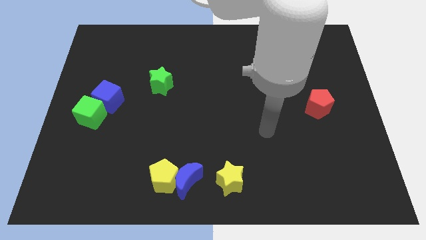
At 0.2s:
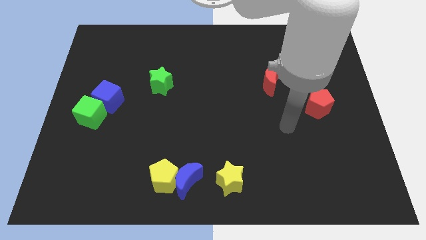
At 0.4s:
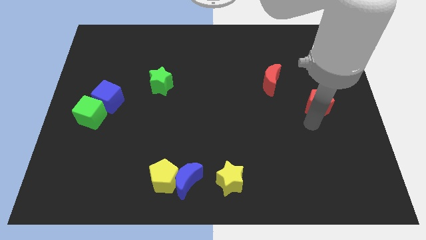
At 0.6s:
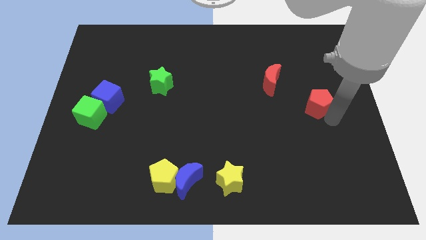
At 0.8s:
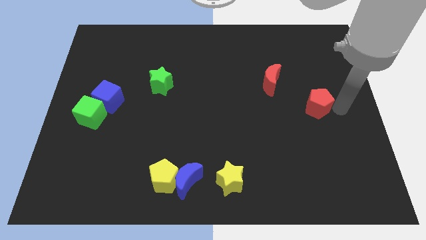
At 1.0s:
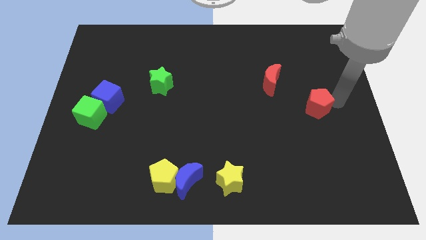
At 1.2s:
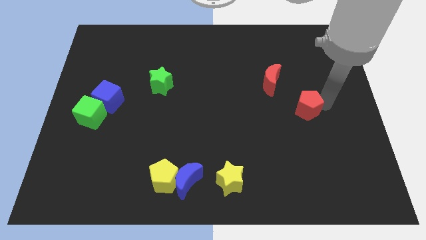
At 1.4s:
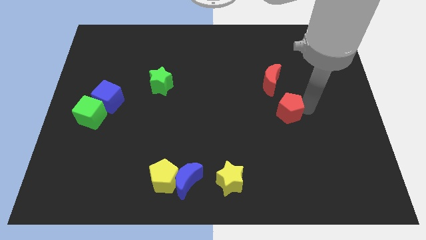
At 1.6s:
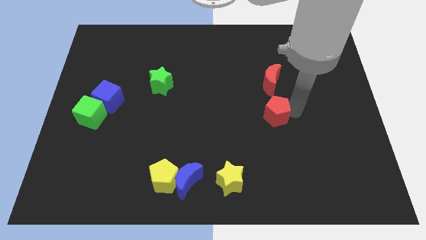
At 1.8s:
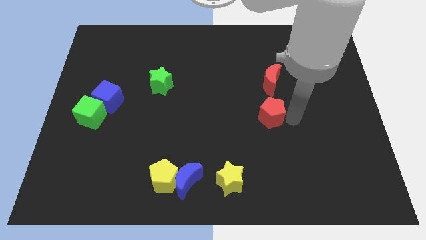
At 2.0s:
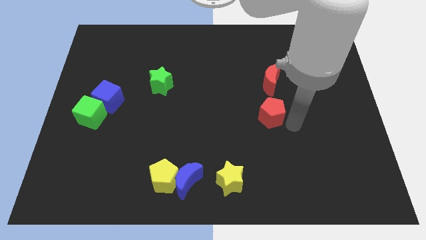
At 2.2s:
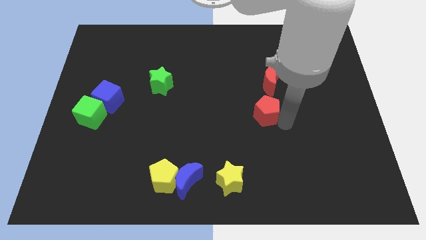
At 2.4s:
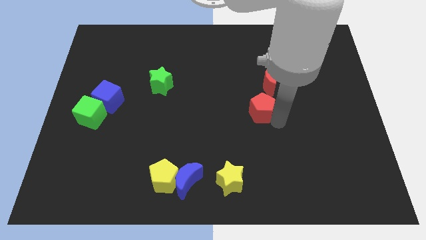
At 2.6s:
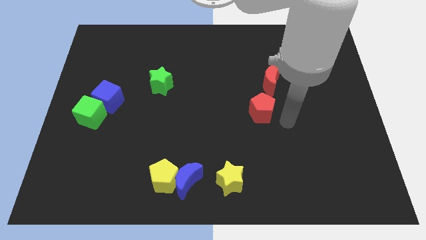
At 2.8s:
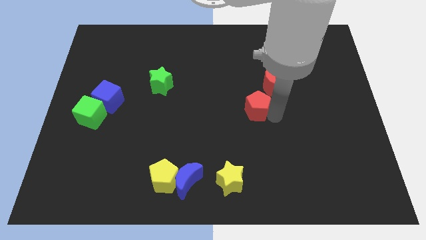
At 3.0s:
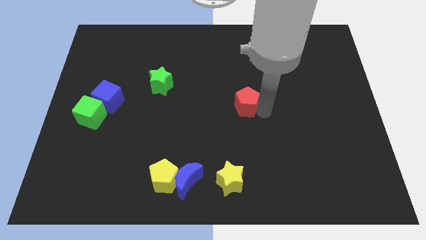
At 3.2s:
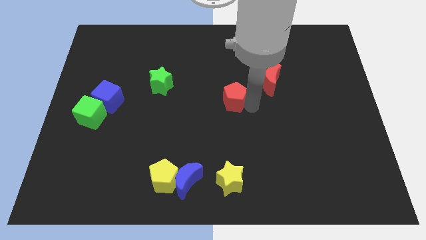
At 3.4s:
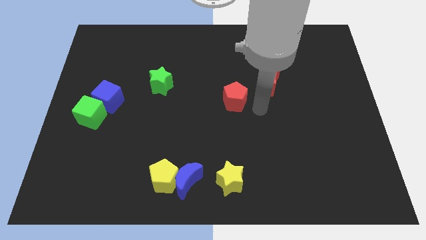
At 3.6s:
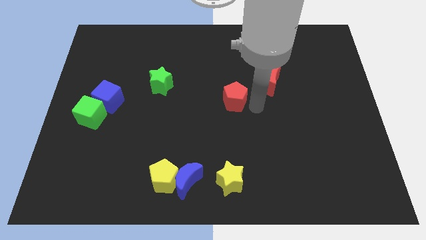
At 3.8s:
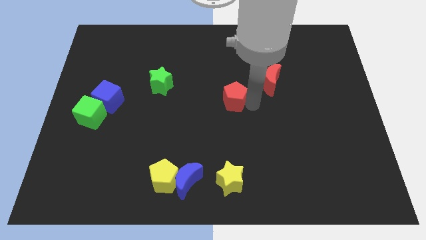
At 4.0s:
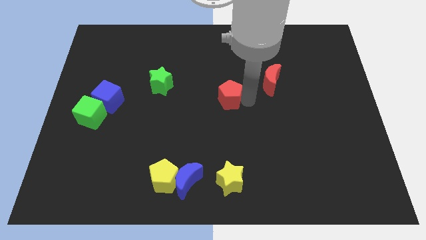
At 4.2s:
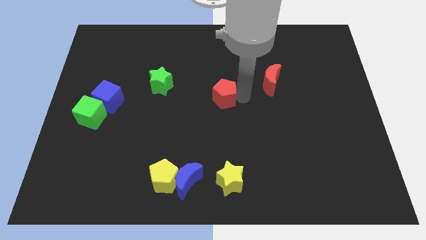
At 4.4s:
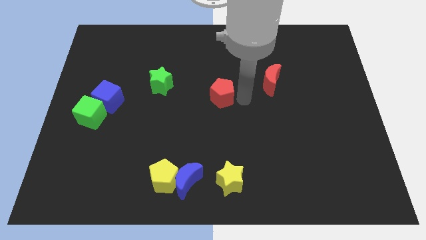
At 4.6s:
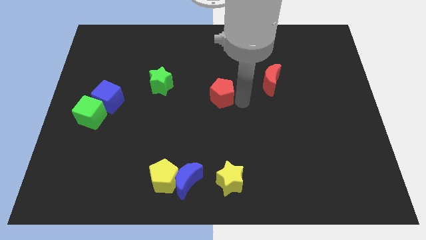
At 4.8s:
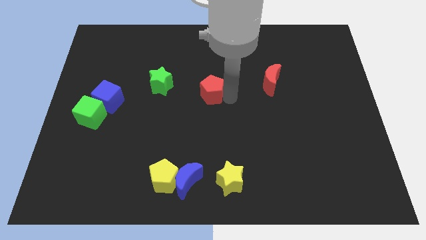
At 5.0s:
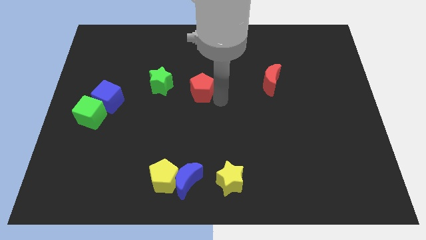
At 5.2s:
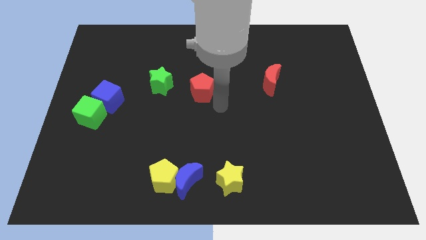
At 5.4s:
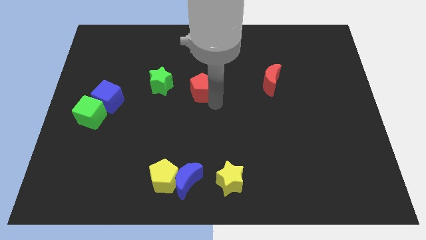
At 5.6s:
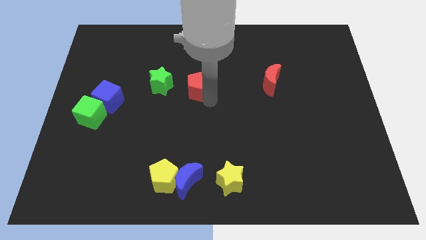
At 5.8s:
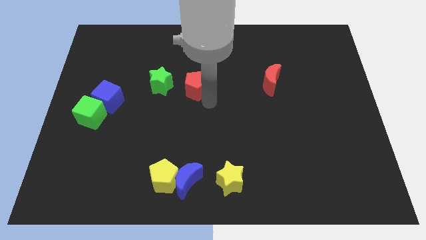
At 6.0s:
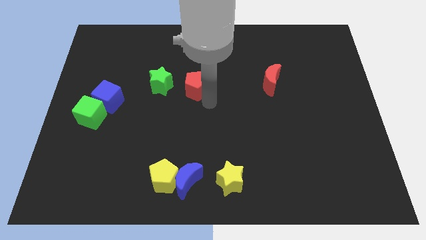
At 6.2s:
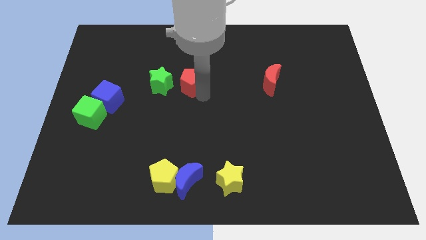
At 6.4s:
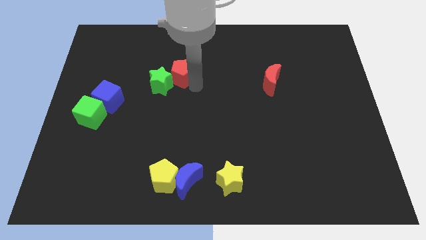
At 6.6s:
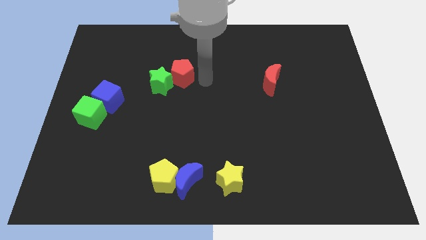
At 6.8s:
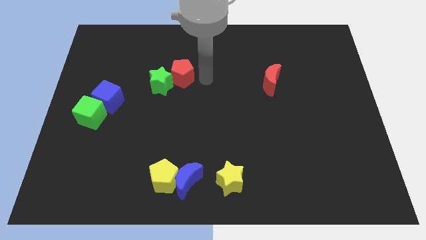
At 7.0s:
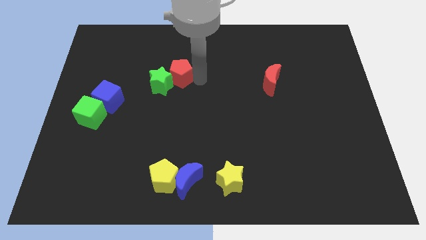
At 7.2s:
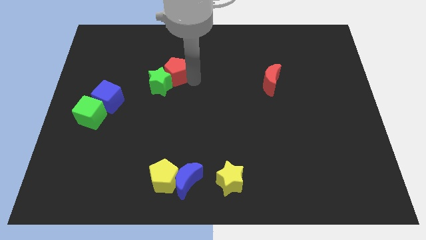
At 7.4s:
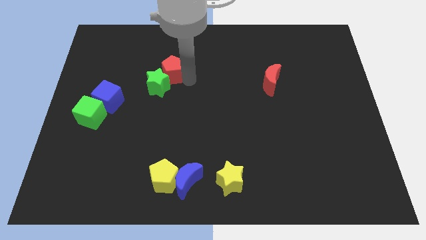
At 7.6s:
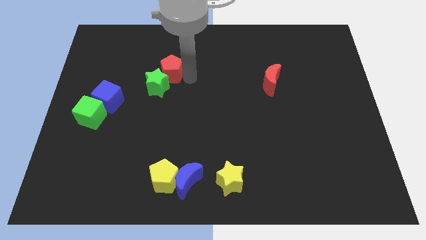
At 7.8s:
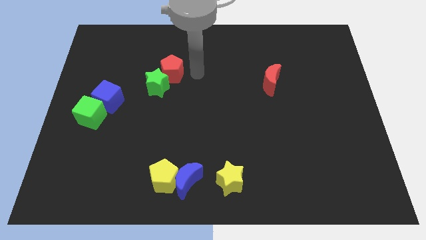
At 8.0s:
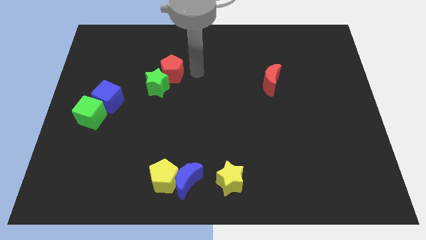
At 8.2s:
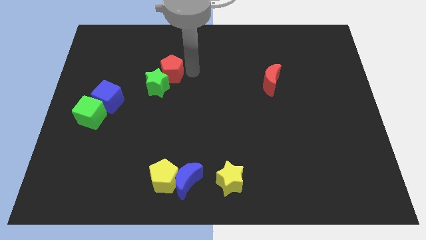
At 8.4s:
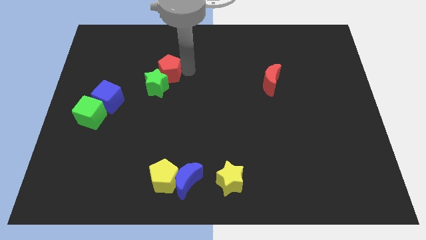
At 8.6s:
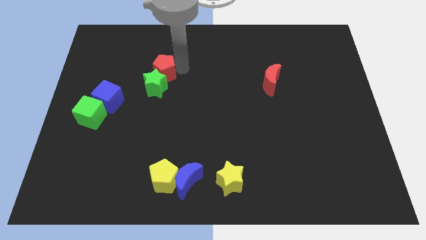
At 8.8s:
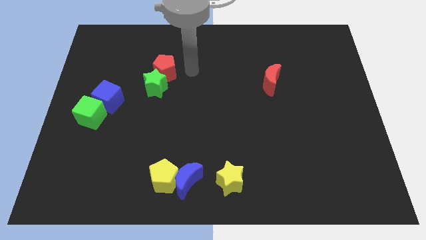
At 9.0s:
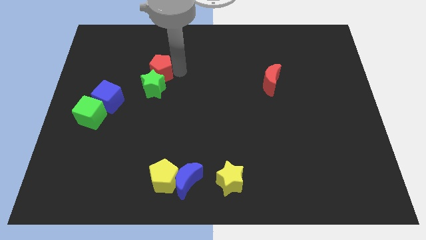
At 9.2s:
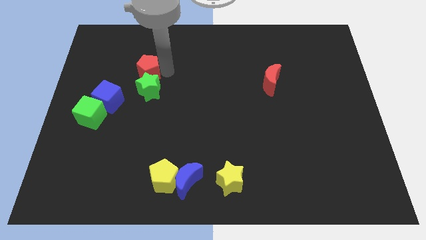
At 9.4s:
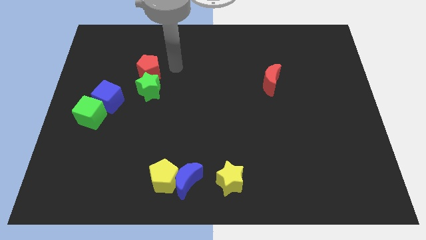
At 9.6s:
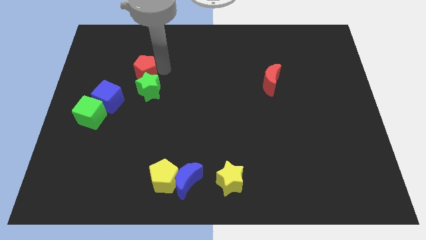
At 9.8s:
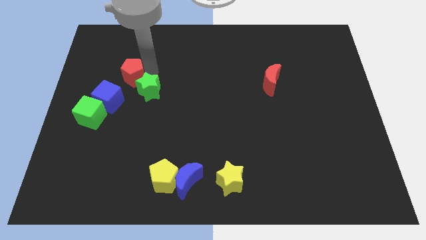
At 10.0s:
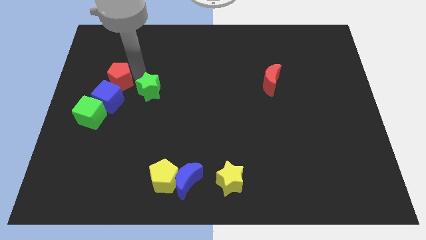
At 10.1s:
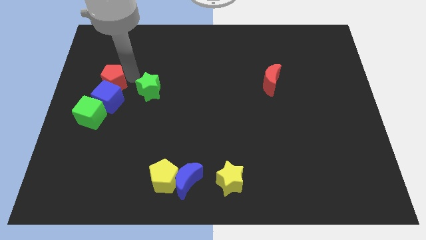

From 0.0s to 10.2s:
slide the red pentagon to the top side of the green cube

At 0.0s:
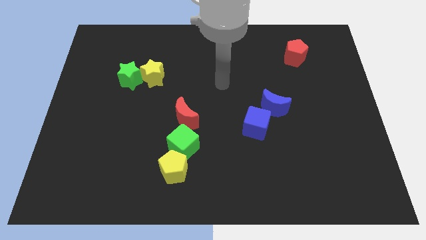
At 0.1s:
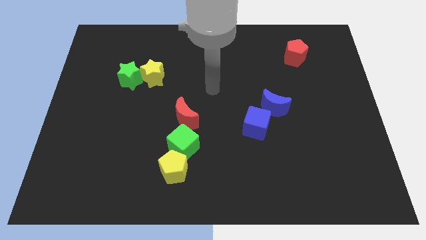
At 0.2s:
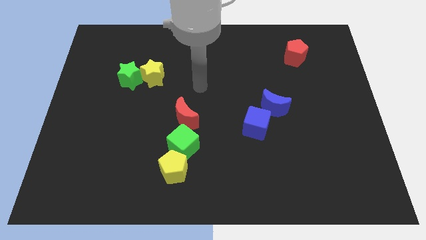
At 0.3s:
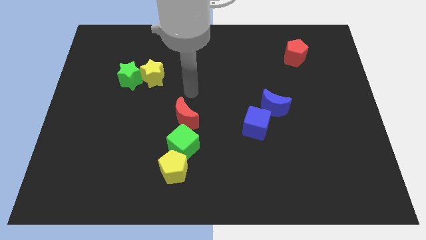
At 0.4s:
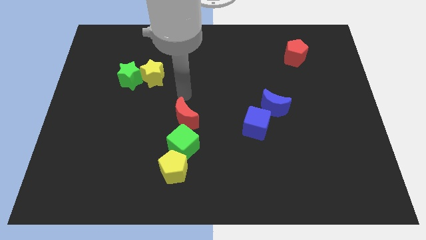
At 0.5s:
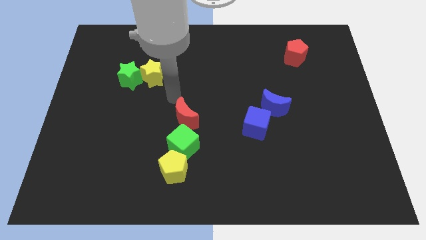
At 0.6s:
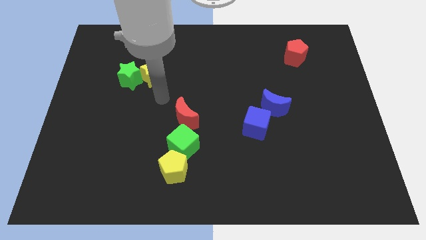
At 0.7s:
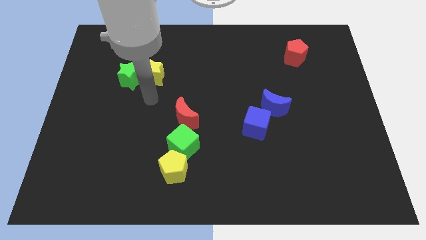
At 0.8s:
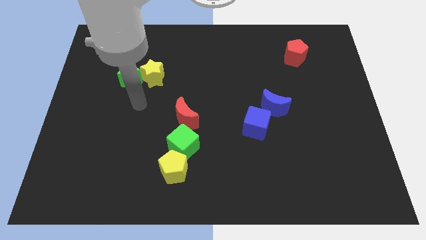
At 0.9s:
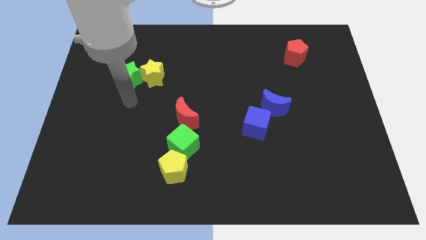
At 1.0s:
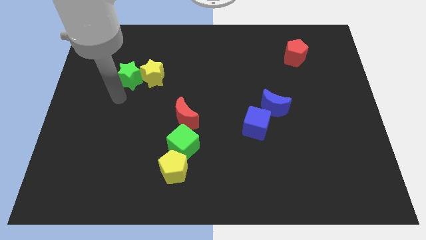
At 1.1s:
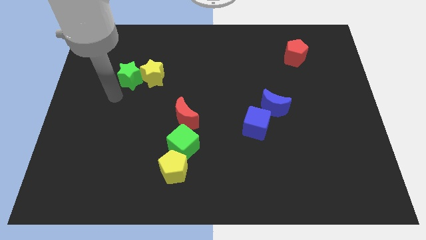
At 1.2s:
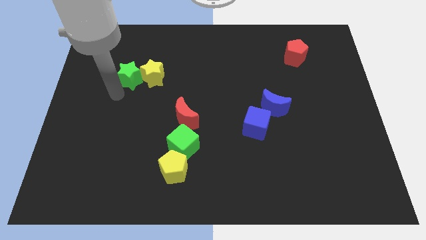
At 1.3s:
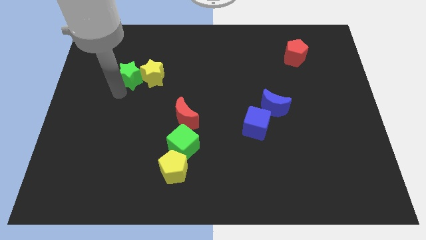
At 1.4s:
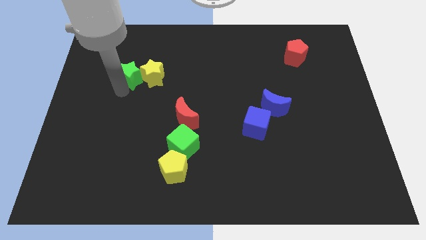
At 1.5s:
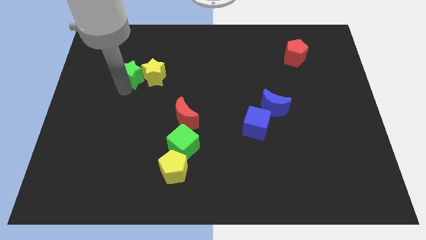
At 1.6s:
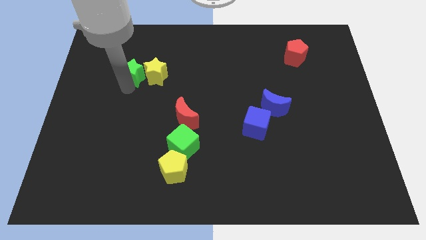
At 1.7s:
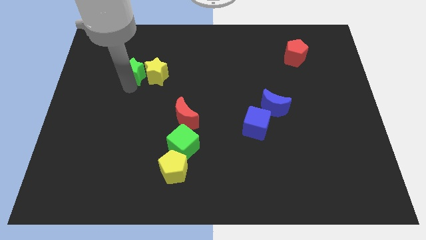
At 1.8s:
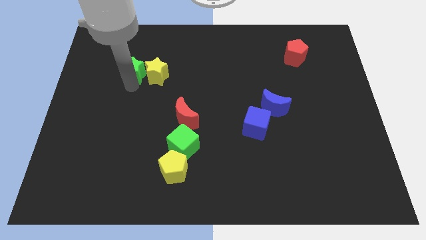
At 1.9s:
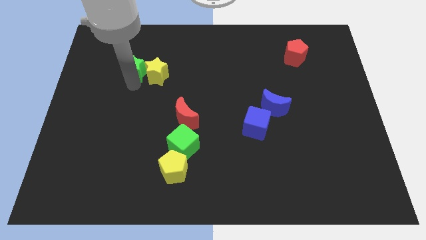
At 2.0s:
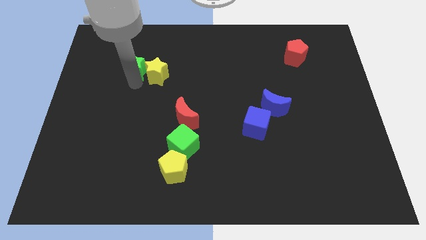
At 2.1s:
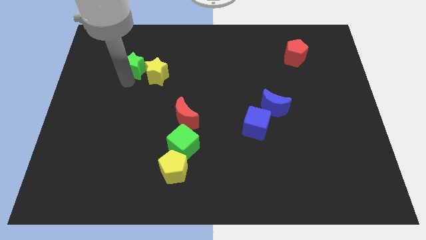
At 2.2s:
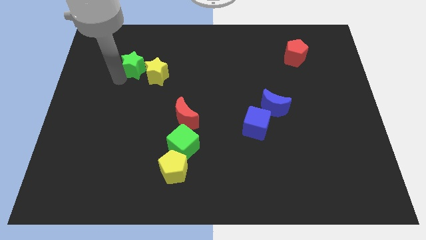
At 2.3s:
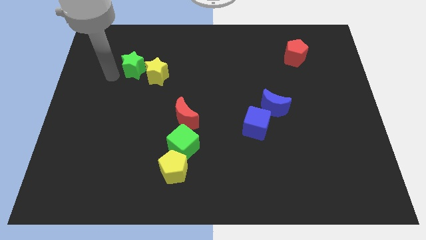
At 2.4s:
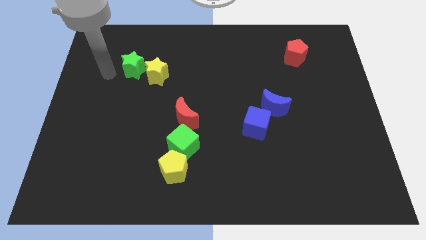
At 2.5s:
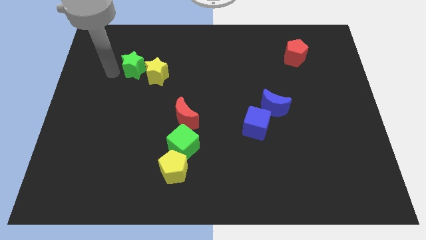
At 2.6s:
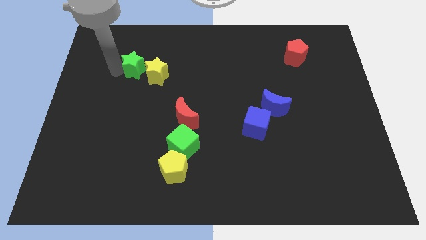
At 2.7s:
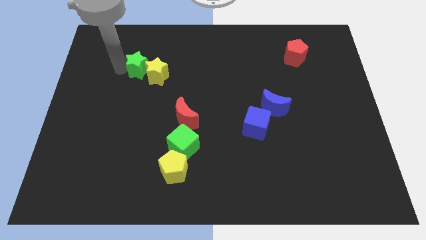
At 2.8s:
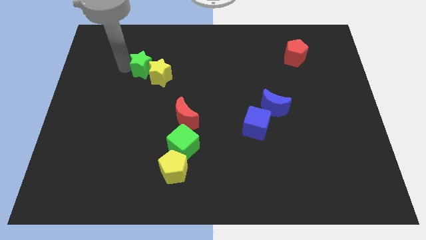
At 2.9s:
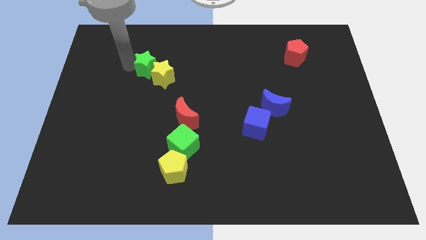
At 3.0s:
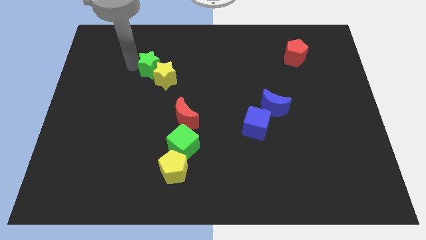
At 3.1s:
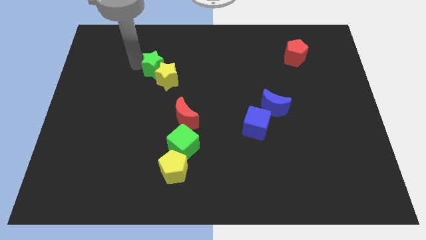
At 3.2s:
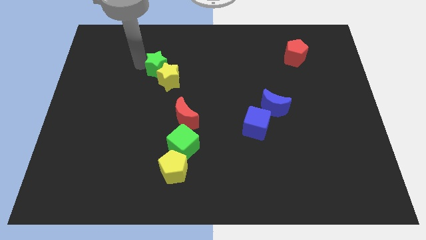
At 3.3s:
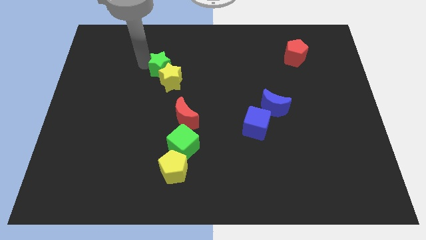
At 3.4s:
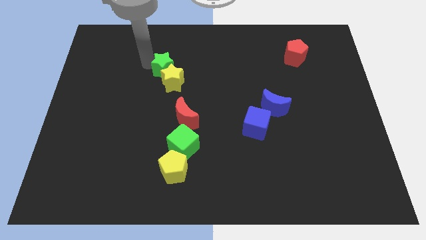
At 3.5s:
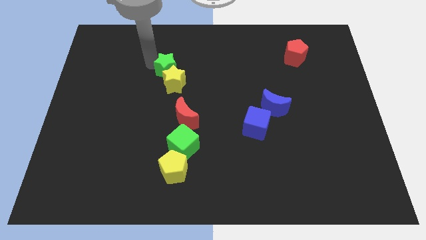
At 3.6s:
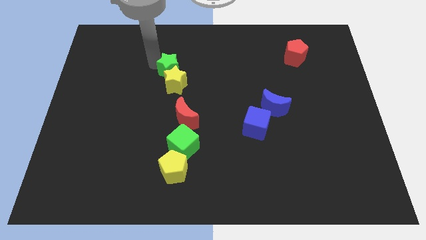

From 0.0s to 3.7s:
slide the green star to the top right of the yellow star
